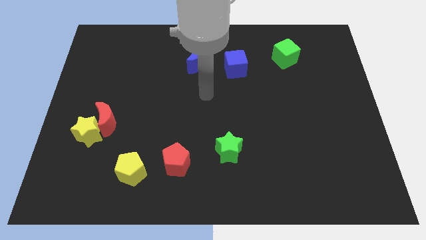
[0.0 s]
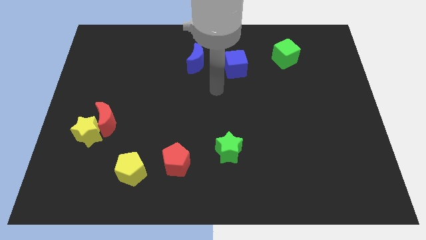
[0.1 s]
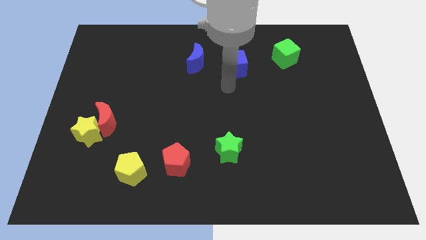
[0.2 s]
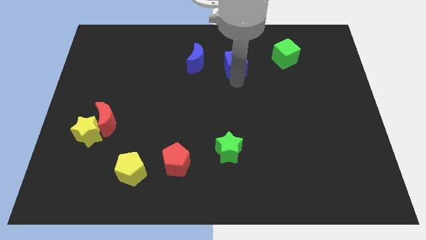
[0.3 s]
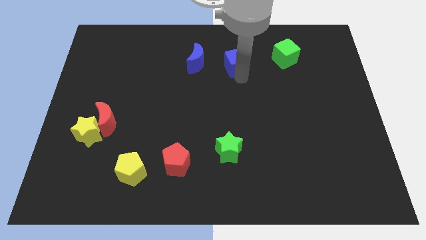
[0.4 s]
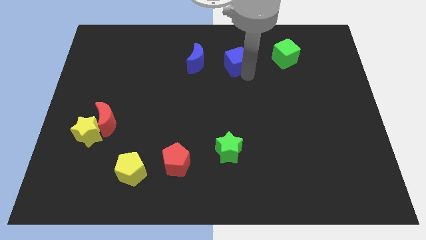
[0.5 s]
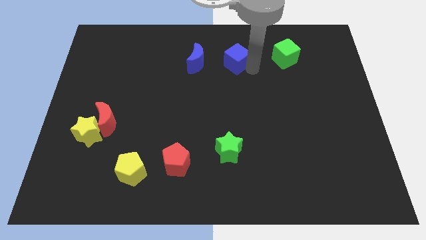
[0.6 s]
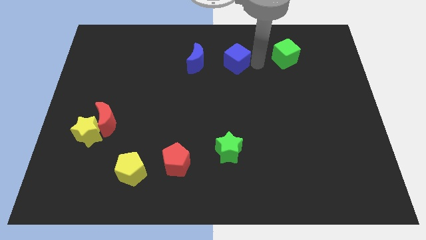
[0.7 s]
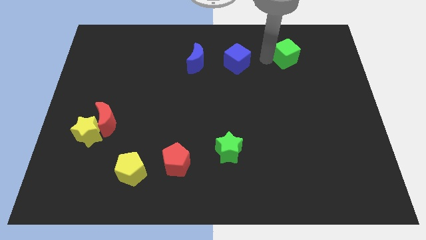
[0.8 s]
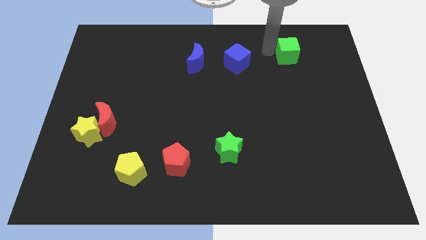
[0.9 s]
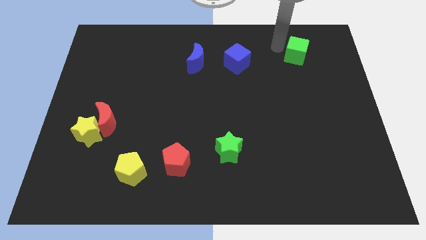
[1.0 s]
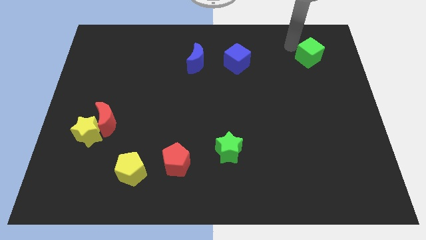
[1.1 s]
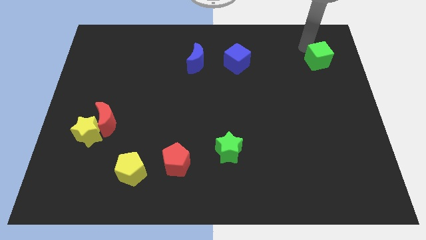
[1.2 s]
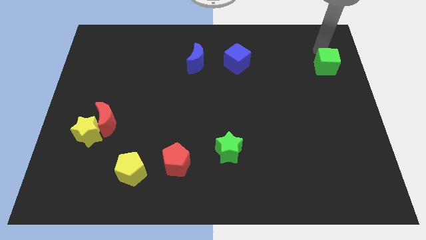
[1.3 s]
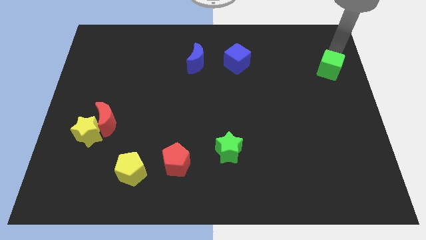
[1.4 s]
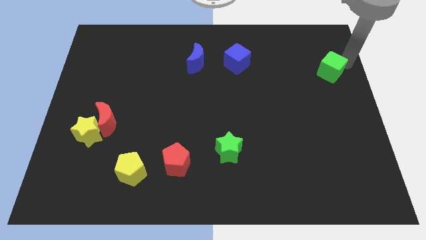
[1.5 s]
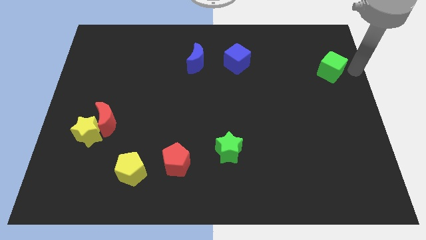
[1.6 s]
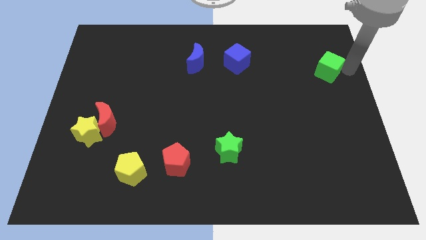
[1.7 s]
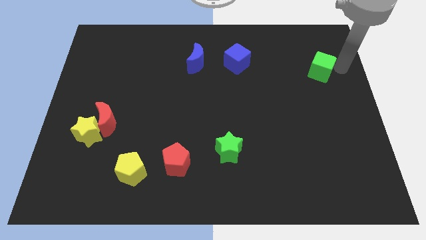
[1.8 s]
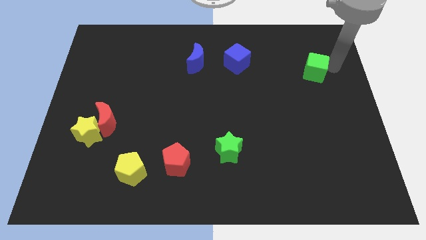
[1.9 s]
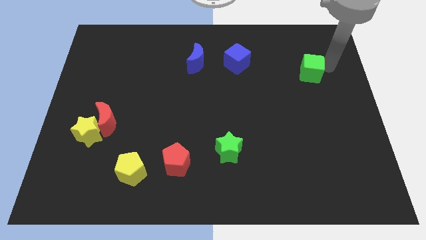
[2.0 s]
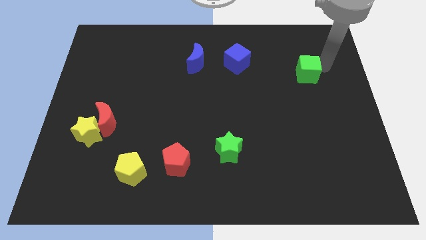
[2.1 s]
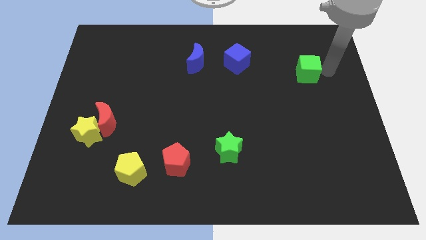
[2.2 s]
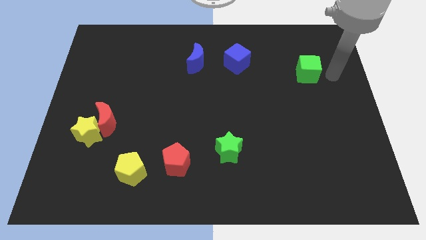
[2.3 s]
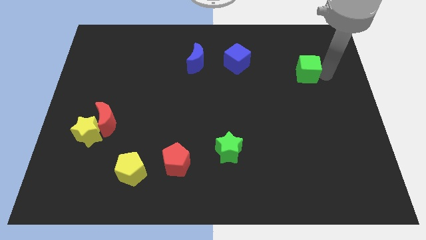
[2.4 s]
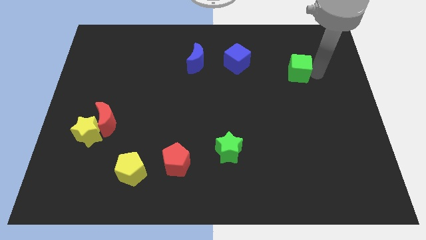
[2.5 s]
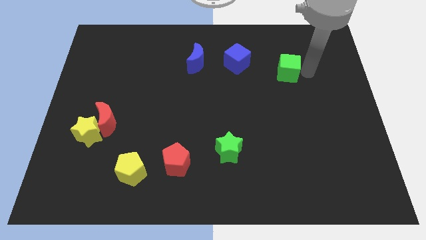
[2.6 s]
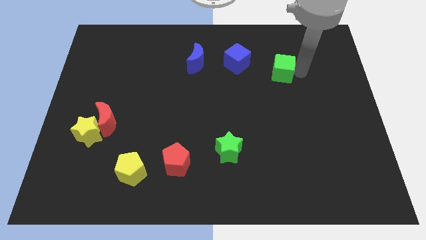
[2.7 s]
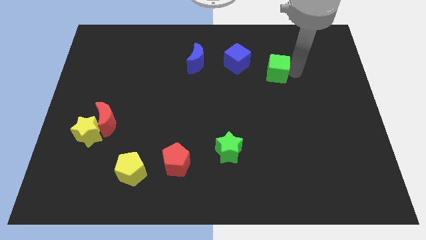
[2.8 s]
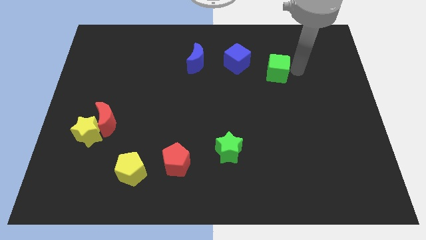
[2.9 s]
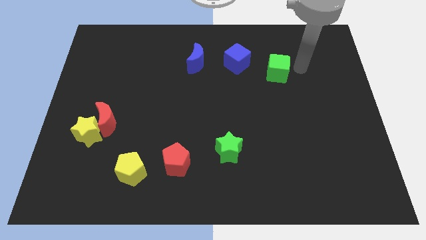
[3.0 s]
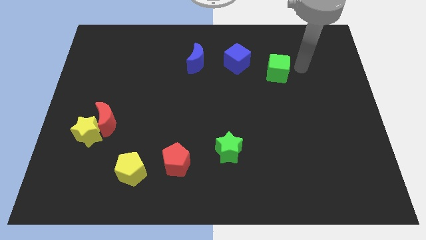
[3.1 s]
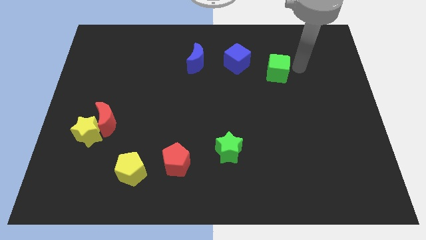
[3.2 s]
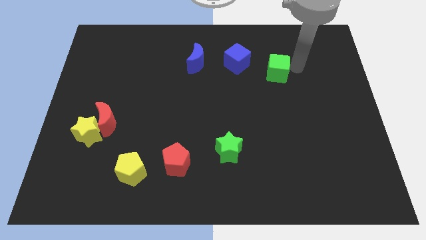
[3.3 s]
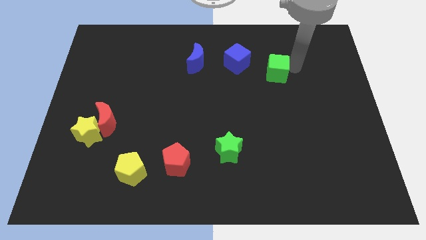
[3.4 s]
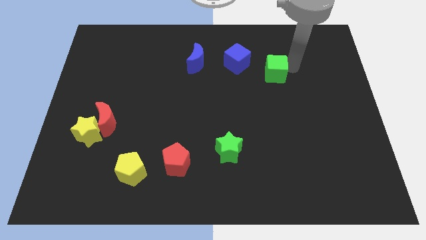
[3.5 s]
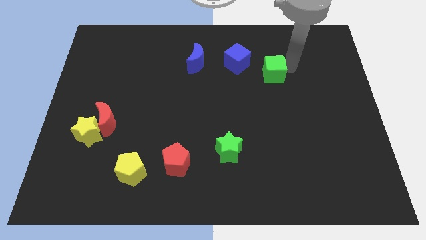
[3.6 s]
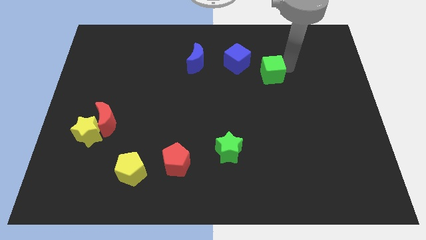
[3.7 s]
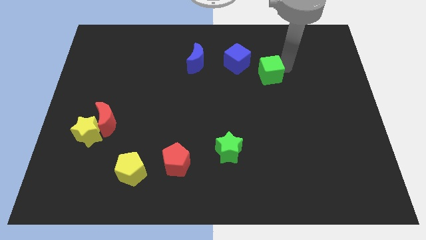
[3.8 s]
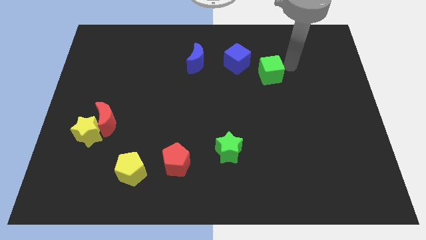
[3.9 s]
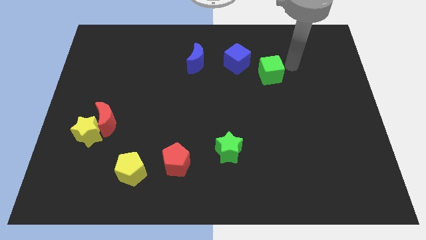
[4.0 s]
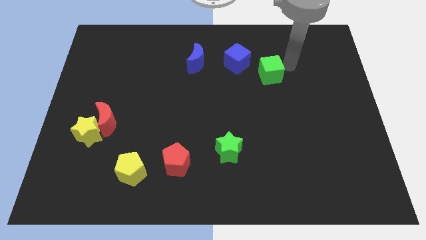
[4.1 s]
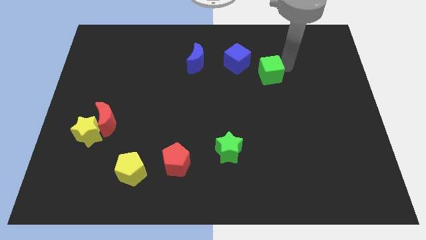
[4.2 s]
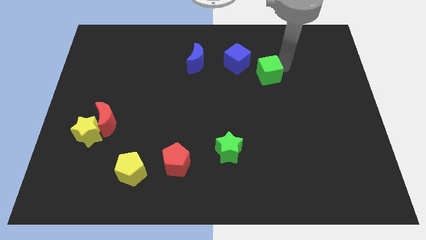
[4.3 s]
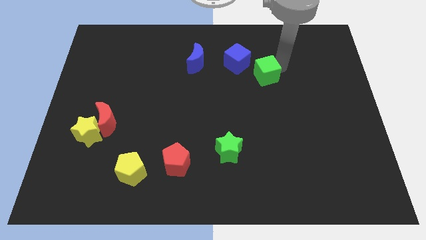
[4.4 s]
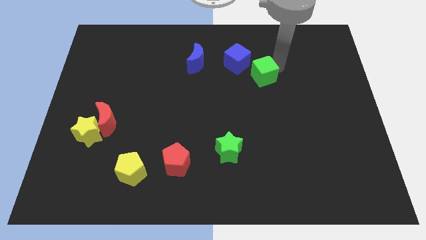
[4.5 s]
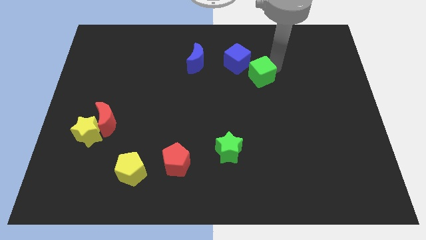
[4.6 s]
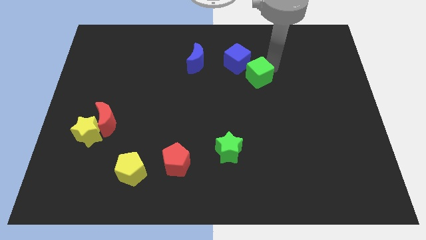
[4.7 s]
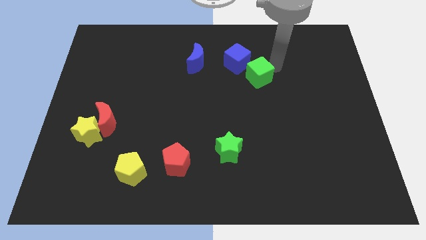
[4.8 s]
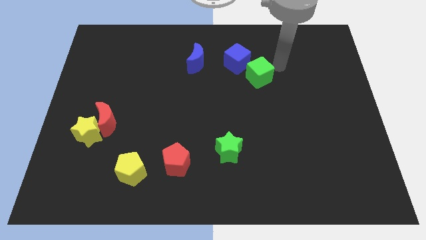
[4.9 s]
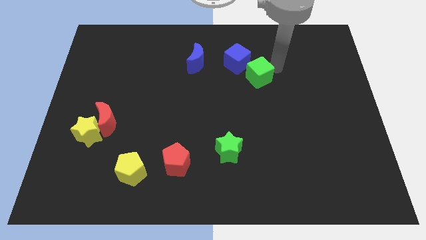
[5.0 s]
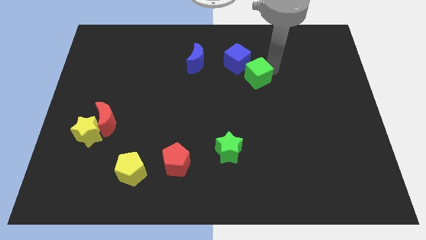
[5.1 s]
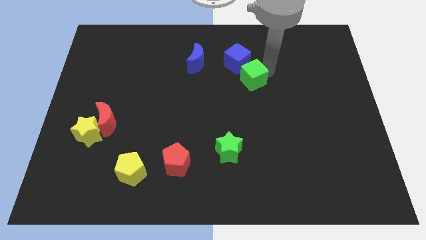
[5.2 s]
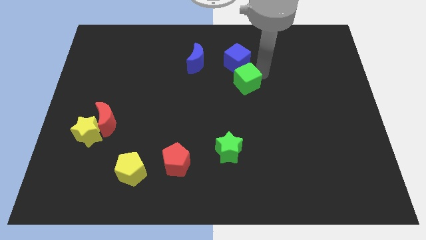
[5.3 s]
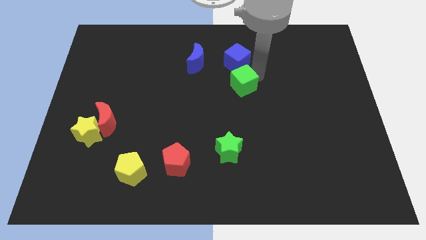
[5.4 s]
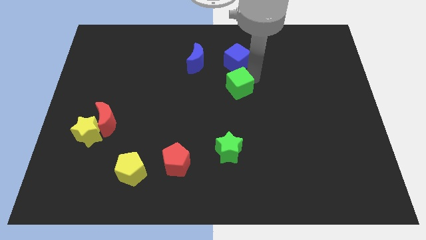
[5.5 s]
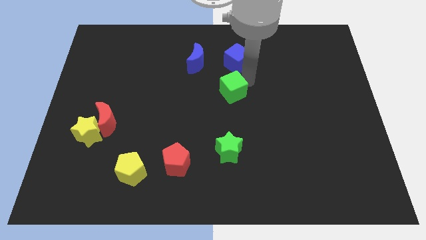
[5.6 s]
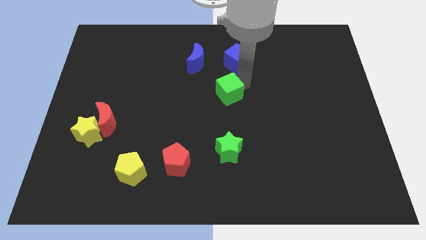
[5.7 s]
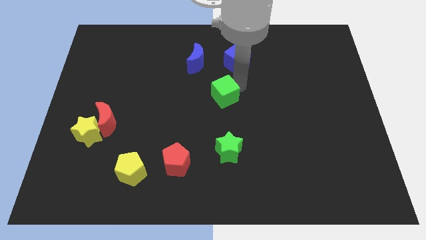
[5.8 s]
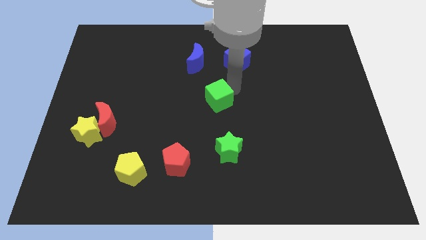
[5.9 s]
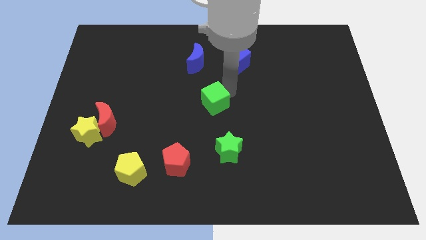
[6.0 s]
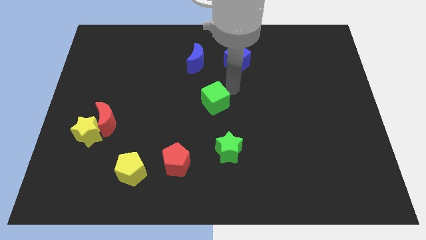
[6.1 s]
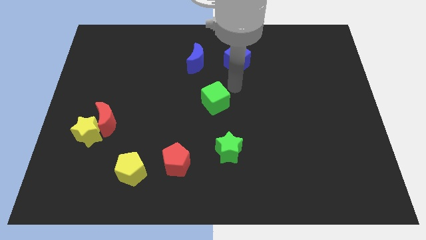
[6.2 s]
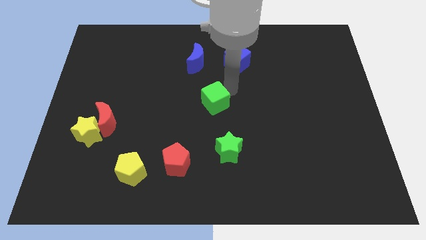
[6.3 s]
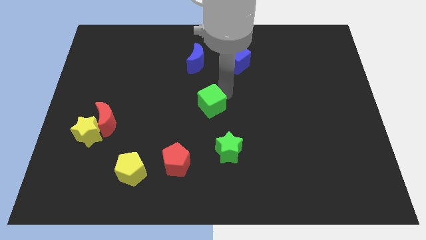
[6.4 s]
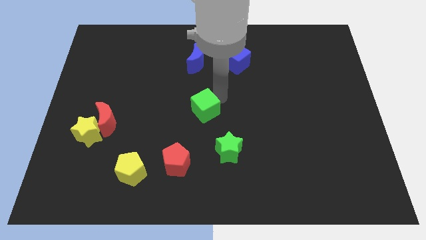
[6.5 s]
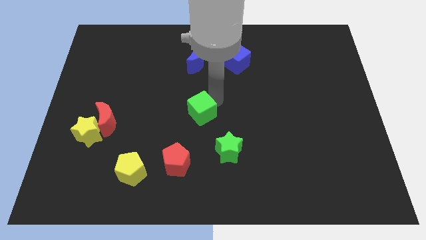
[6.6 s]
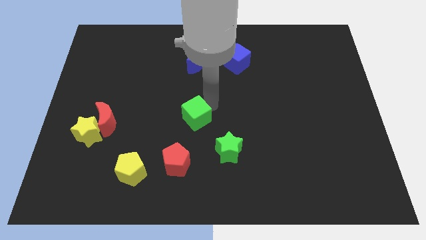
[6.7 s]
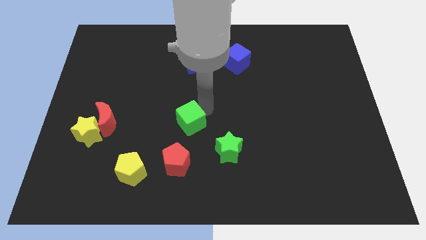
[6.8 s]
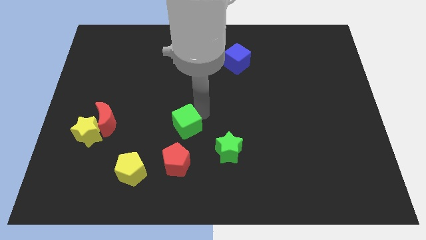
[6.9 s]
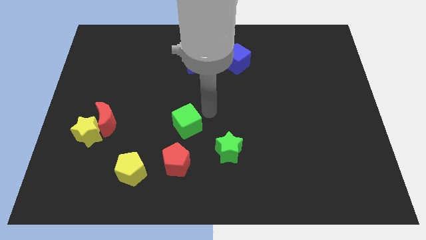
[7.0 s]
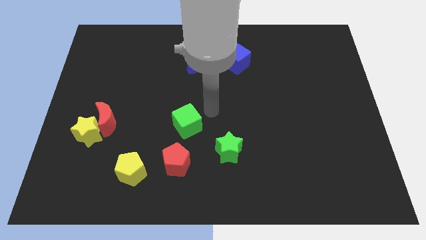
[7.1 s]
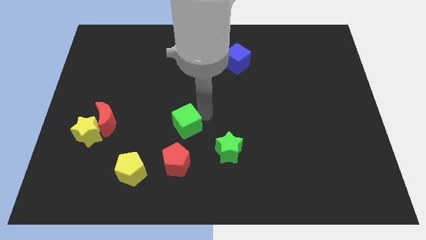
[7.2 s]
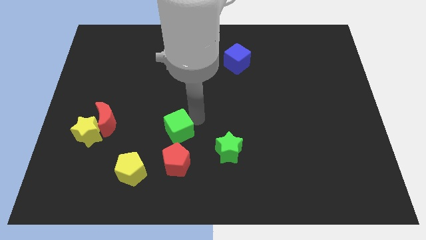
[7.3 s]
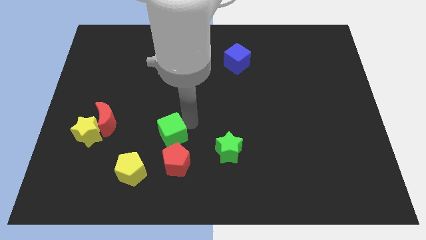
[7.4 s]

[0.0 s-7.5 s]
push the green cube to the top left side of the red pentagon
